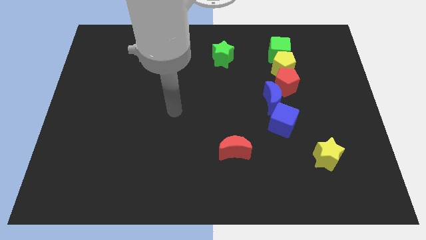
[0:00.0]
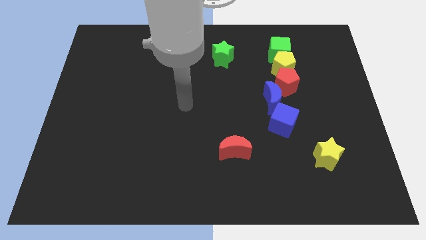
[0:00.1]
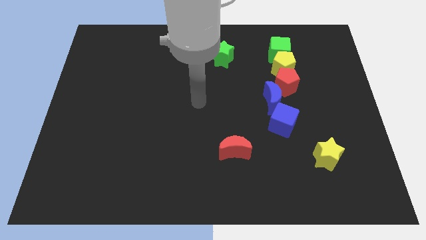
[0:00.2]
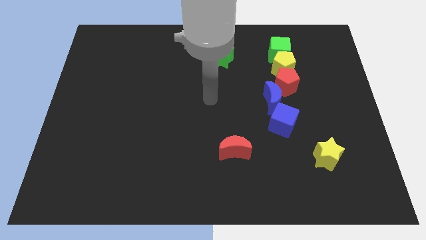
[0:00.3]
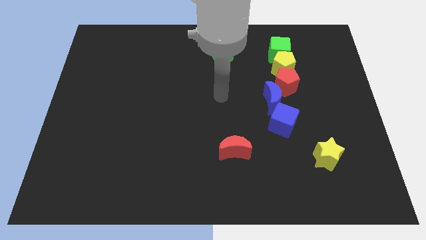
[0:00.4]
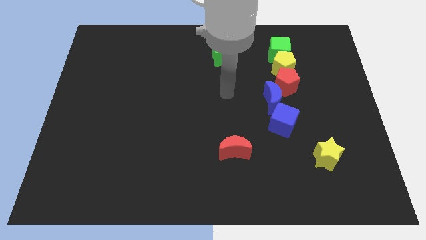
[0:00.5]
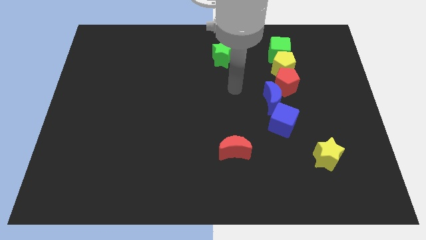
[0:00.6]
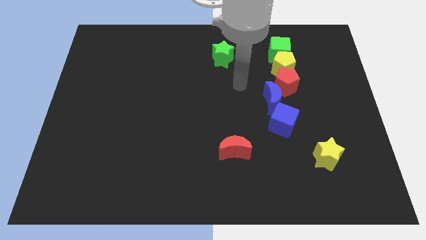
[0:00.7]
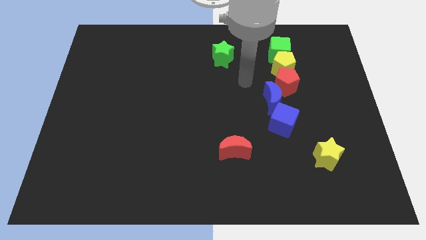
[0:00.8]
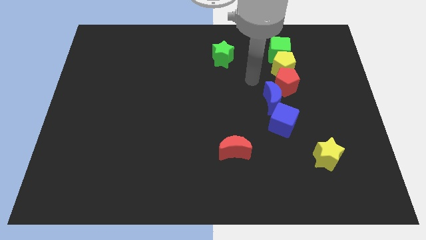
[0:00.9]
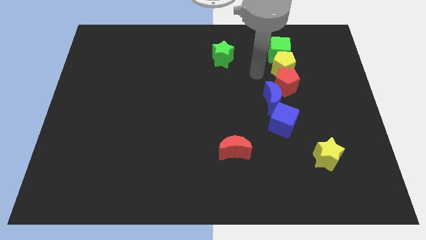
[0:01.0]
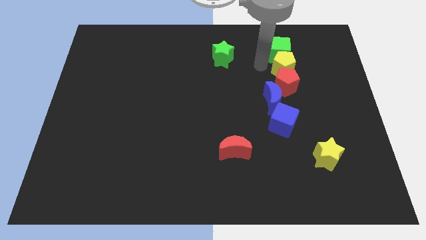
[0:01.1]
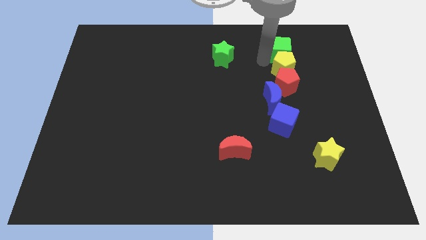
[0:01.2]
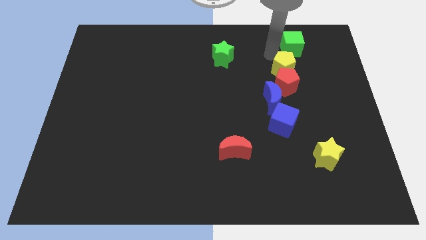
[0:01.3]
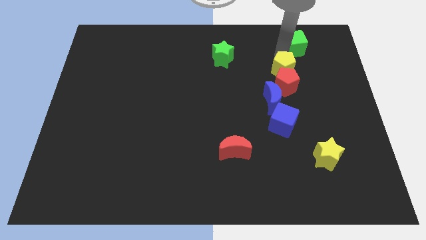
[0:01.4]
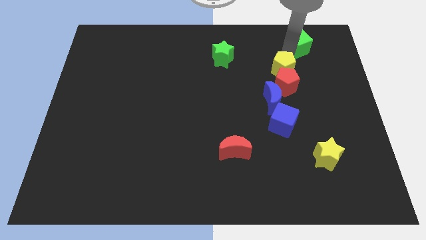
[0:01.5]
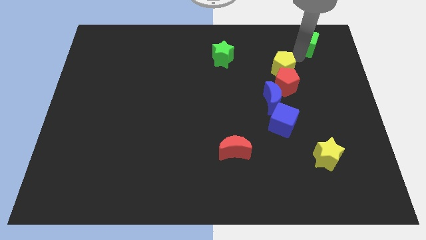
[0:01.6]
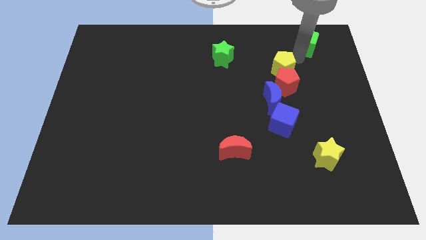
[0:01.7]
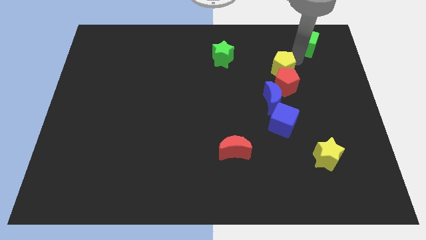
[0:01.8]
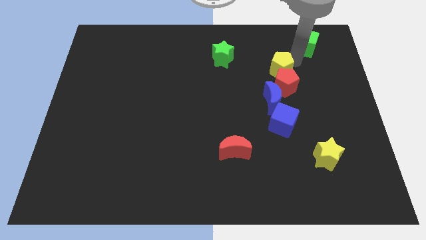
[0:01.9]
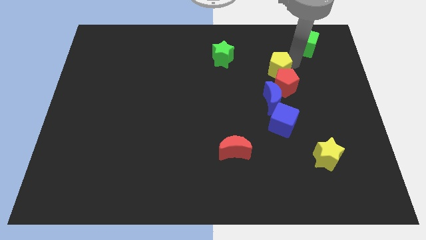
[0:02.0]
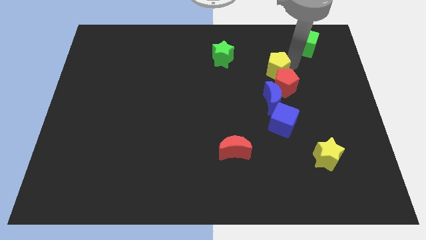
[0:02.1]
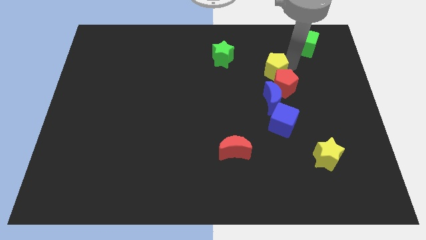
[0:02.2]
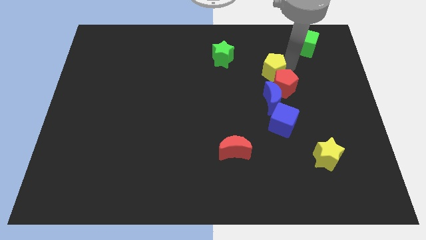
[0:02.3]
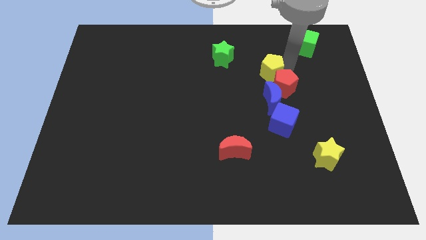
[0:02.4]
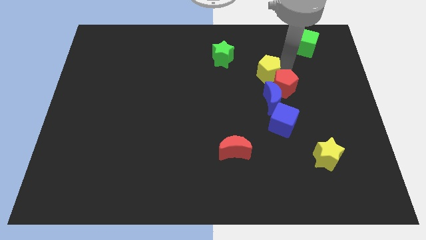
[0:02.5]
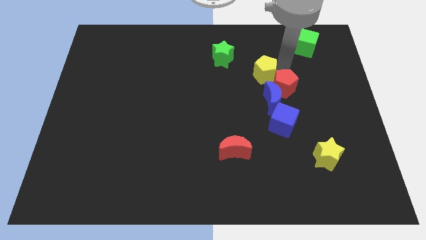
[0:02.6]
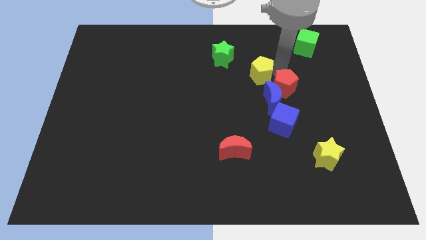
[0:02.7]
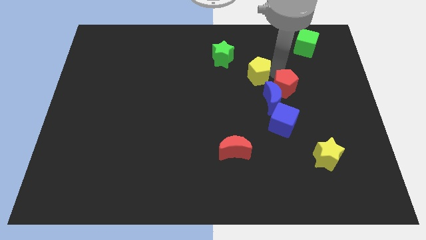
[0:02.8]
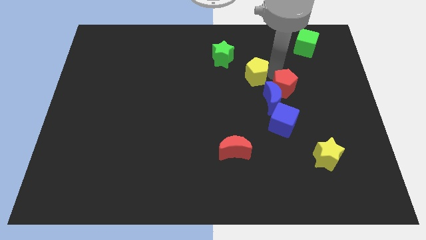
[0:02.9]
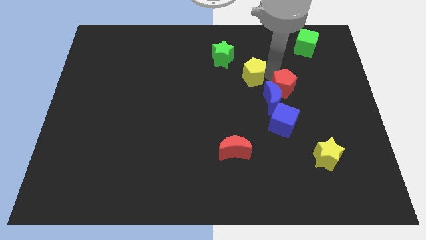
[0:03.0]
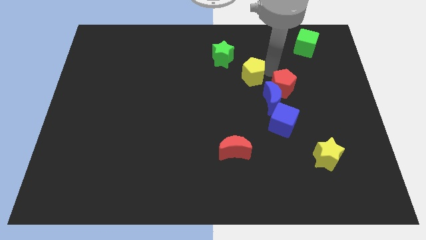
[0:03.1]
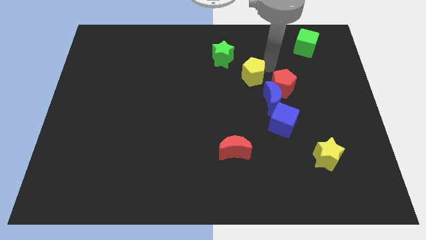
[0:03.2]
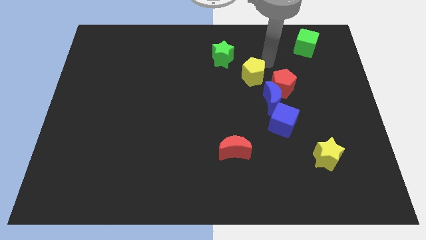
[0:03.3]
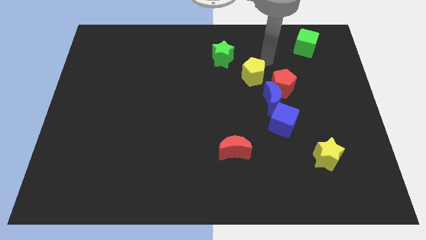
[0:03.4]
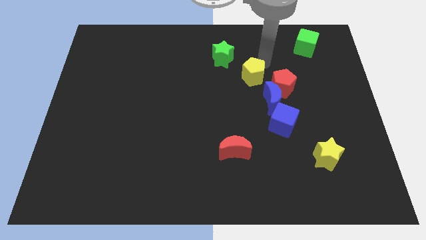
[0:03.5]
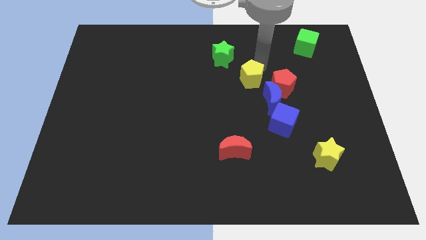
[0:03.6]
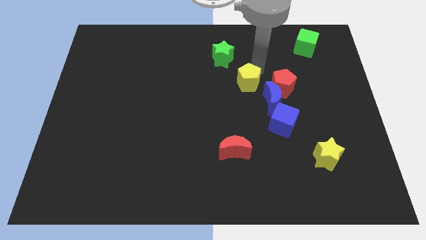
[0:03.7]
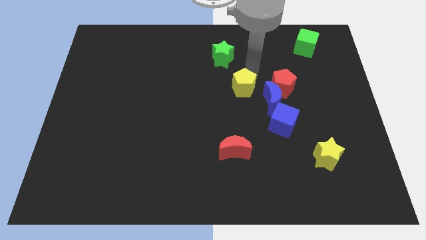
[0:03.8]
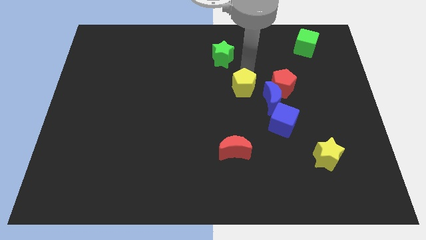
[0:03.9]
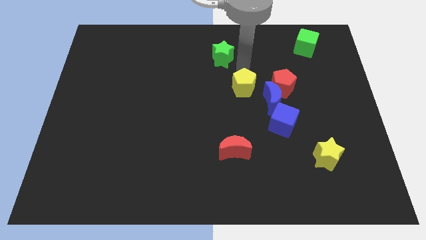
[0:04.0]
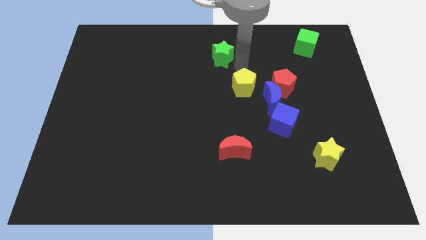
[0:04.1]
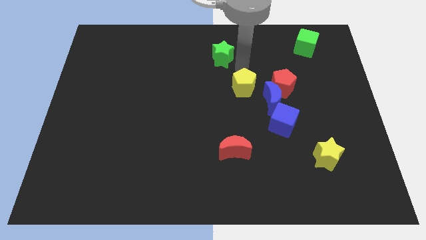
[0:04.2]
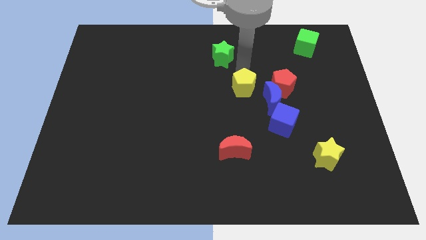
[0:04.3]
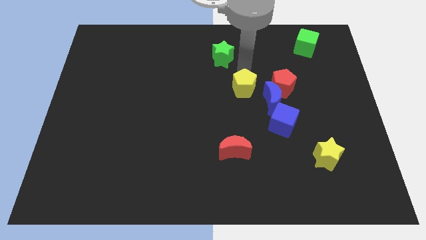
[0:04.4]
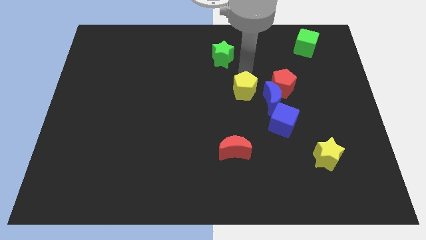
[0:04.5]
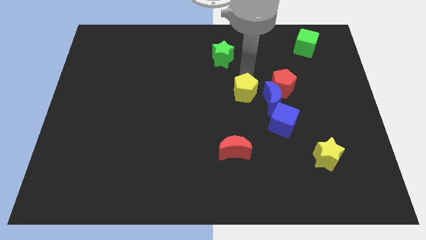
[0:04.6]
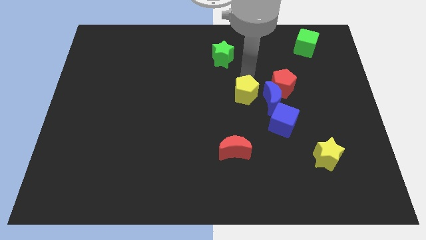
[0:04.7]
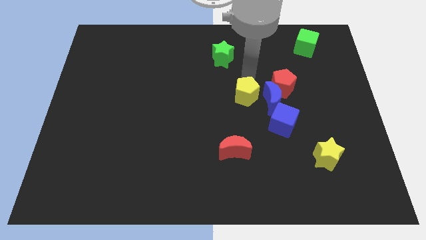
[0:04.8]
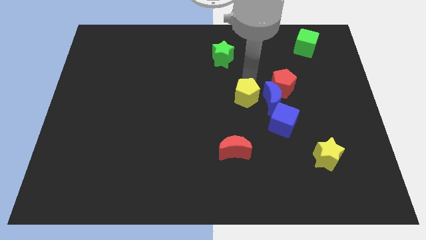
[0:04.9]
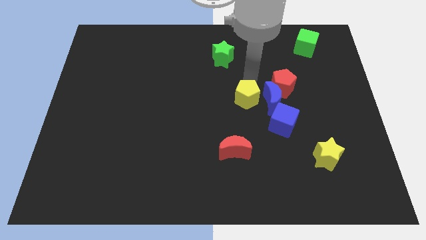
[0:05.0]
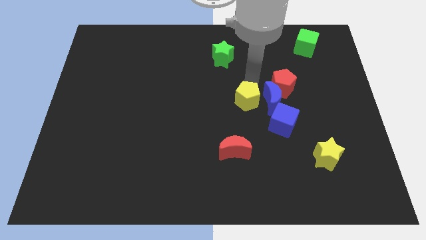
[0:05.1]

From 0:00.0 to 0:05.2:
move the yellow pentagon to the bottom left side of the blue moon

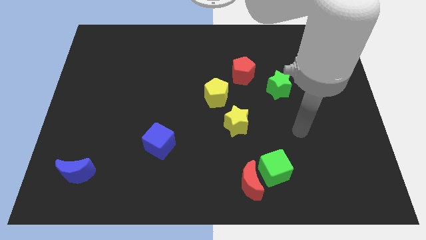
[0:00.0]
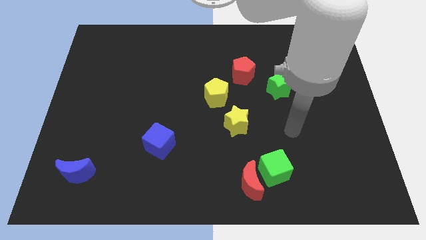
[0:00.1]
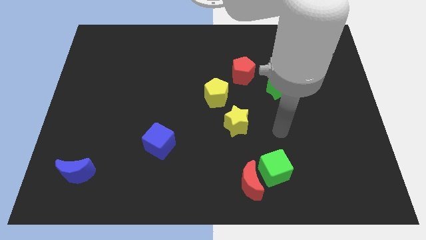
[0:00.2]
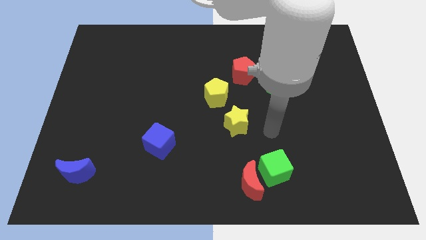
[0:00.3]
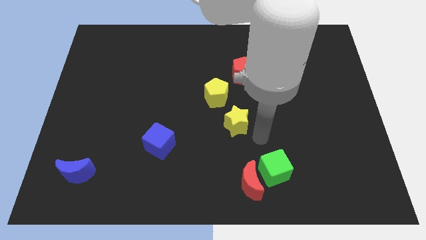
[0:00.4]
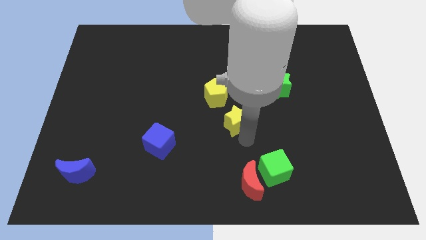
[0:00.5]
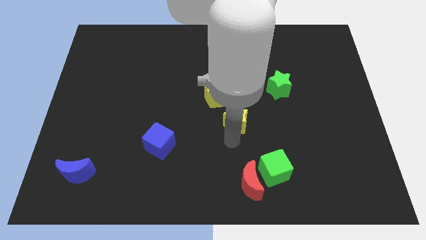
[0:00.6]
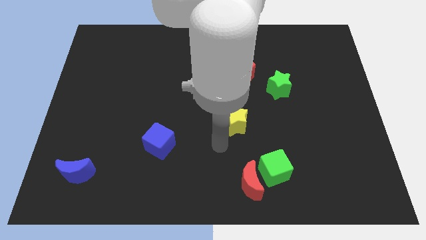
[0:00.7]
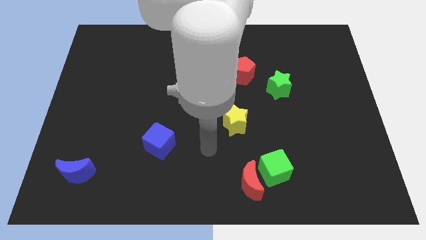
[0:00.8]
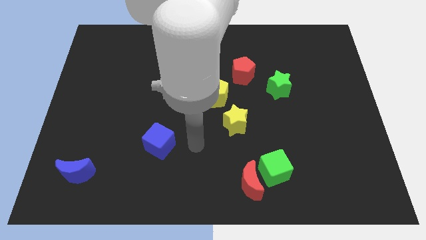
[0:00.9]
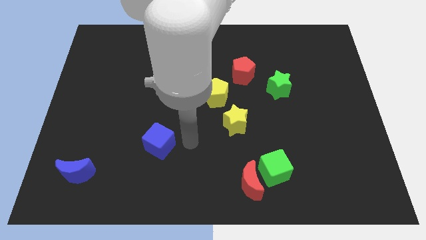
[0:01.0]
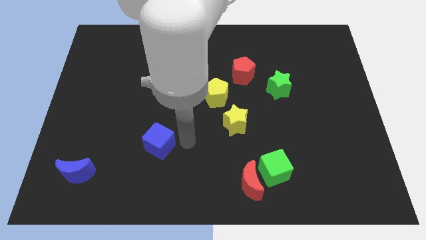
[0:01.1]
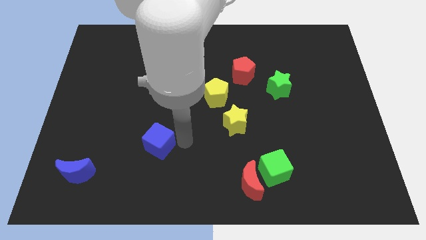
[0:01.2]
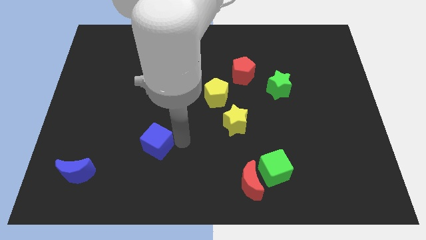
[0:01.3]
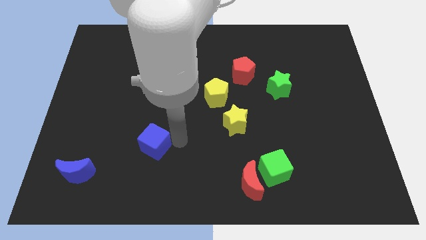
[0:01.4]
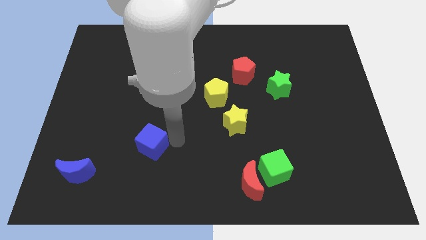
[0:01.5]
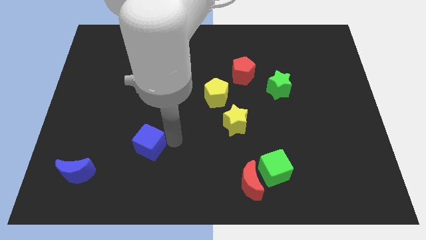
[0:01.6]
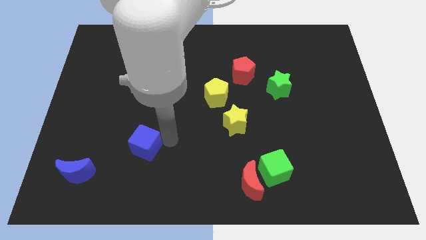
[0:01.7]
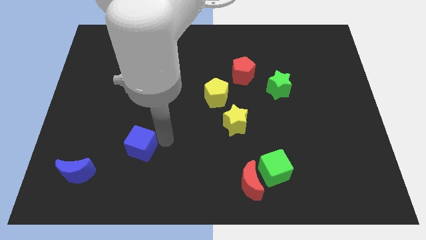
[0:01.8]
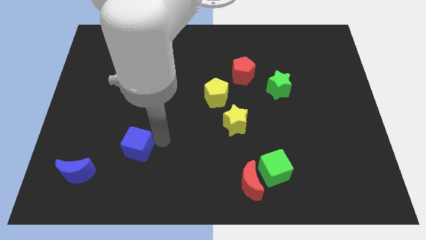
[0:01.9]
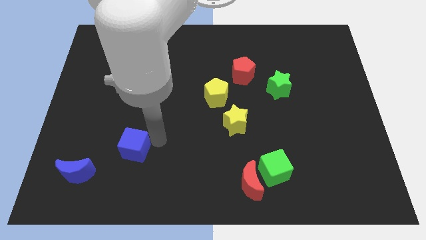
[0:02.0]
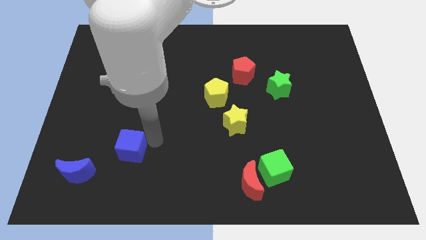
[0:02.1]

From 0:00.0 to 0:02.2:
slide the blue cube to the top right side of the blue moon

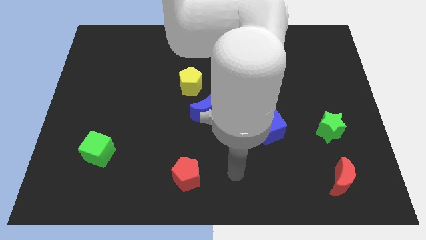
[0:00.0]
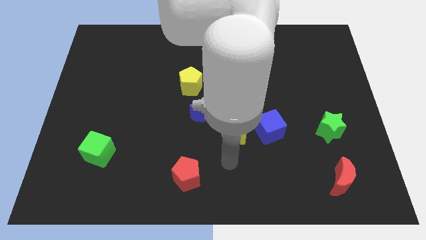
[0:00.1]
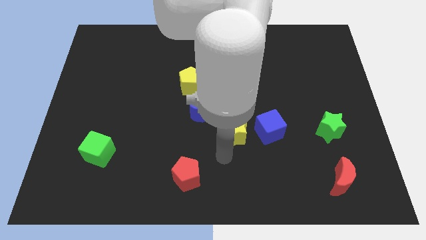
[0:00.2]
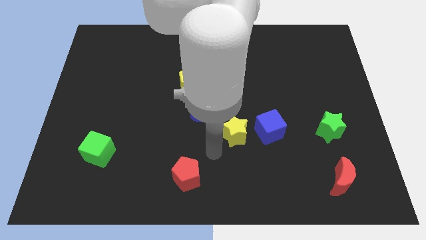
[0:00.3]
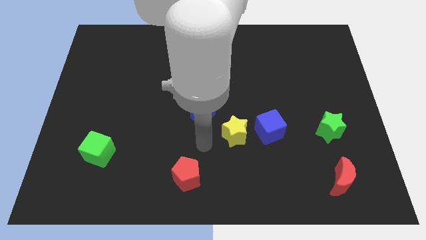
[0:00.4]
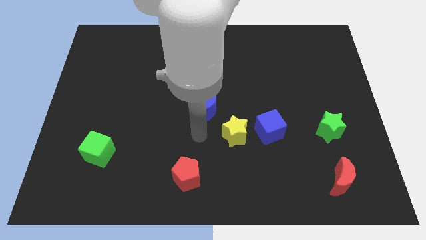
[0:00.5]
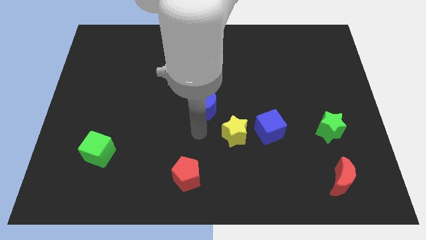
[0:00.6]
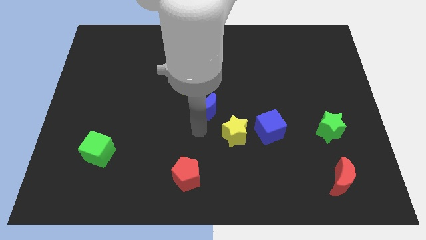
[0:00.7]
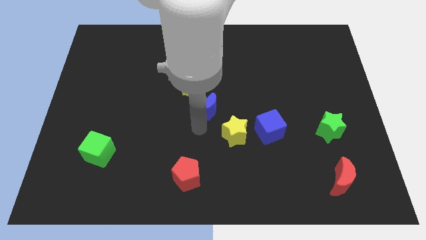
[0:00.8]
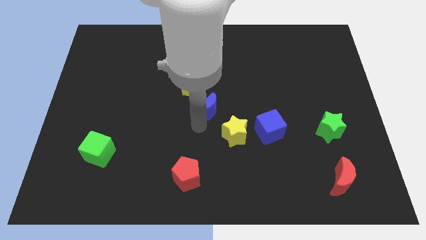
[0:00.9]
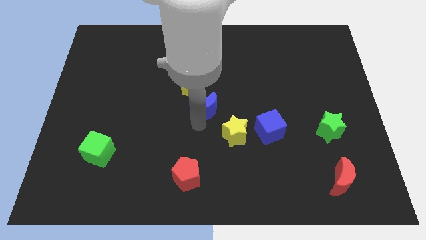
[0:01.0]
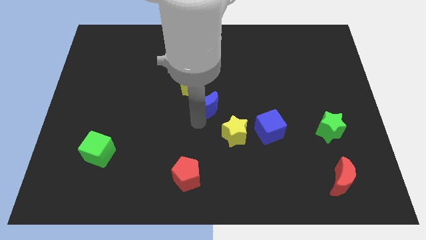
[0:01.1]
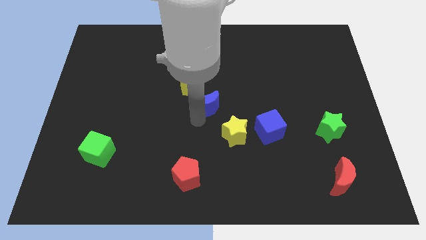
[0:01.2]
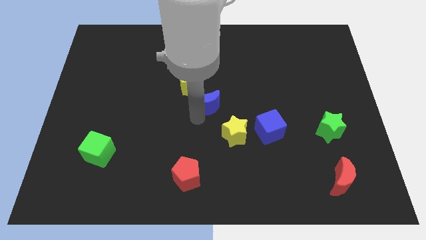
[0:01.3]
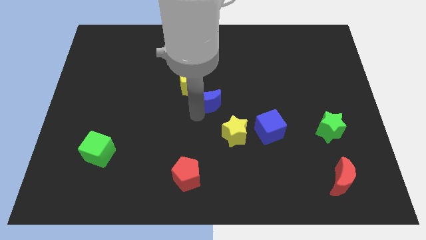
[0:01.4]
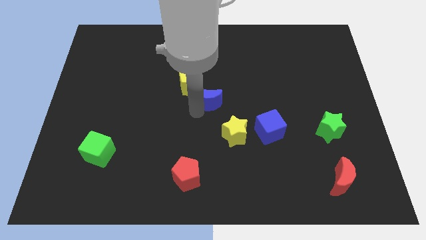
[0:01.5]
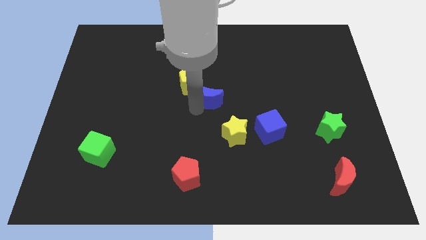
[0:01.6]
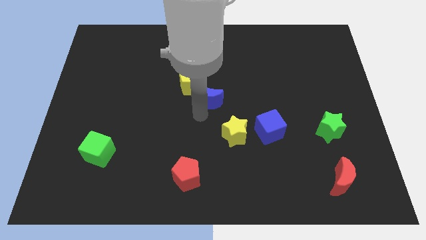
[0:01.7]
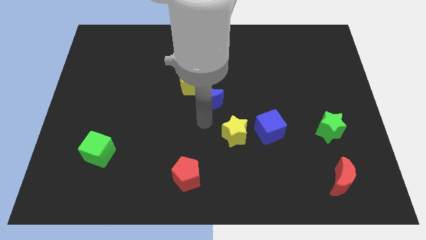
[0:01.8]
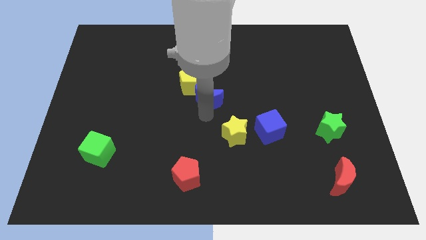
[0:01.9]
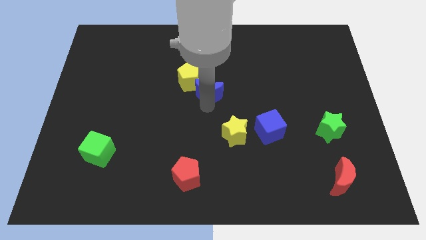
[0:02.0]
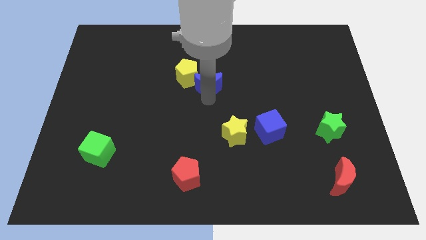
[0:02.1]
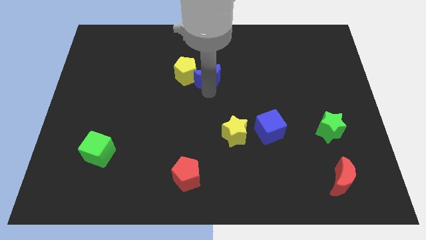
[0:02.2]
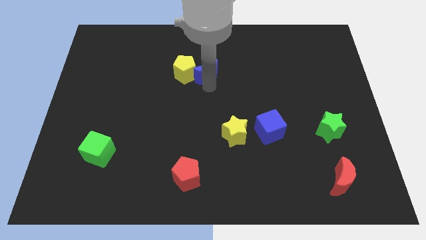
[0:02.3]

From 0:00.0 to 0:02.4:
slide the blue moon diagonally up and to the right of the yellow pentagon
